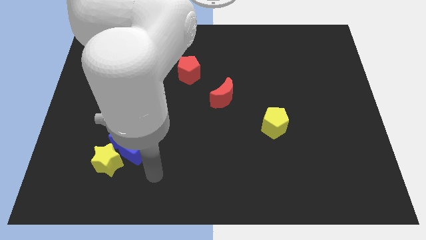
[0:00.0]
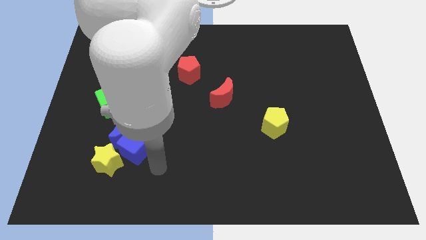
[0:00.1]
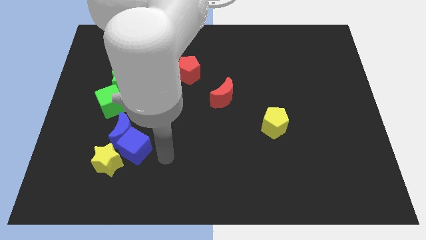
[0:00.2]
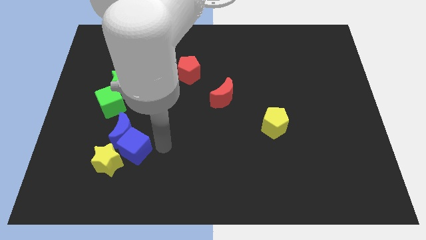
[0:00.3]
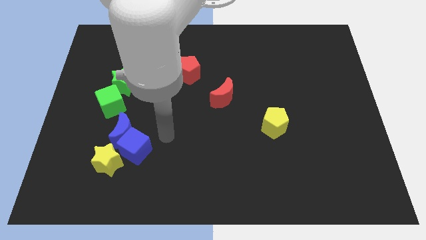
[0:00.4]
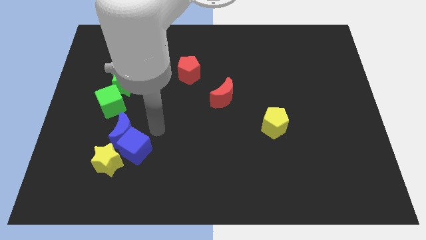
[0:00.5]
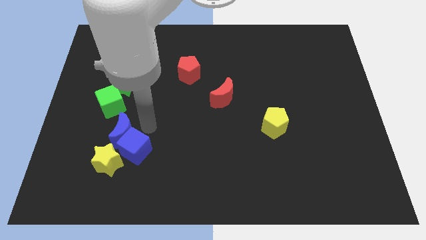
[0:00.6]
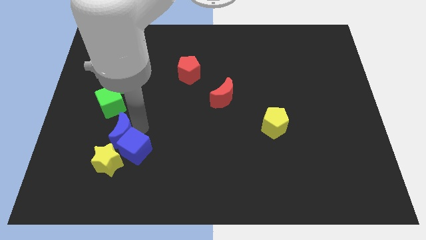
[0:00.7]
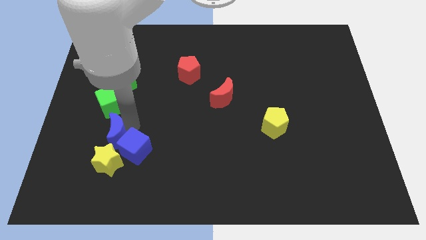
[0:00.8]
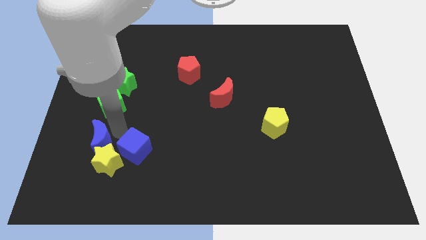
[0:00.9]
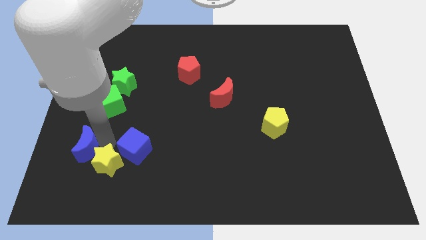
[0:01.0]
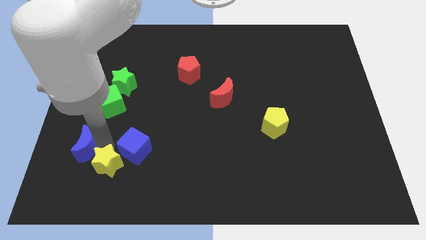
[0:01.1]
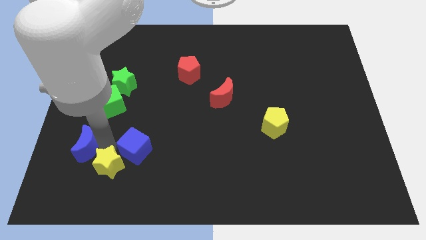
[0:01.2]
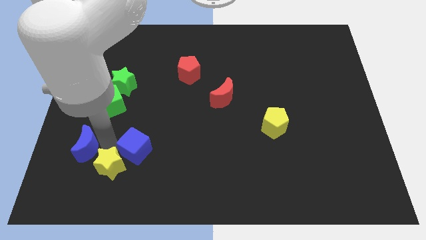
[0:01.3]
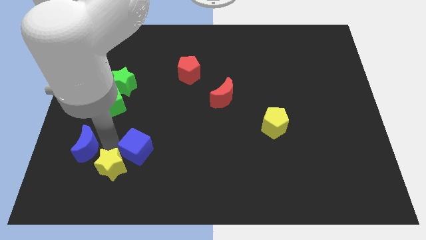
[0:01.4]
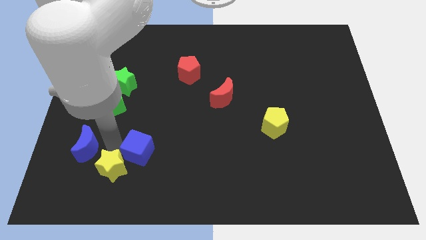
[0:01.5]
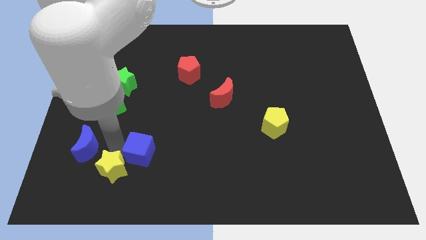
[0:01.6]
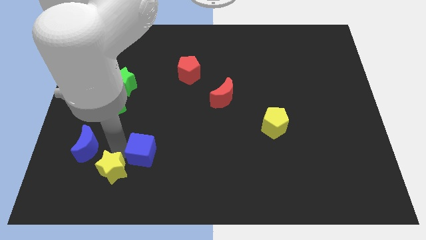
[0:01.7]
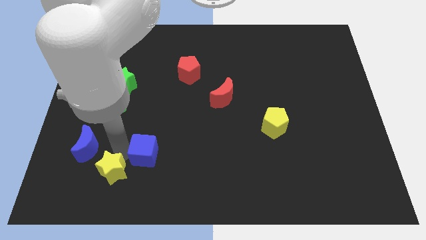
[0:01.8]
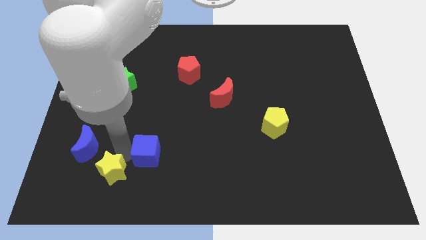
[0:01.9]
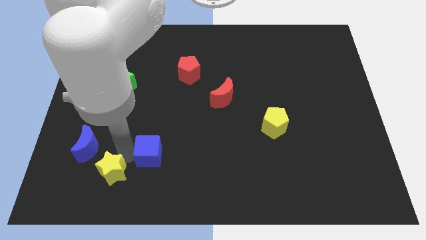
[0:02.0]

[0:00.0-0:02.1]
separate the blue cube from the blue moon and yellow star

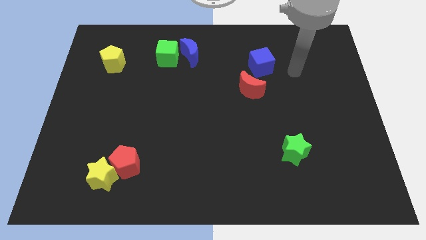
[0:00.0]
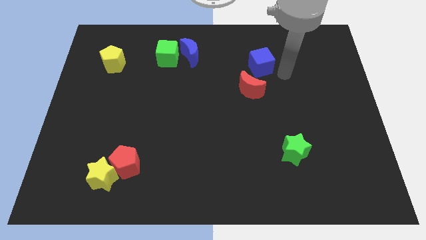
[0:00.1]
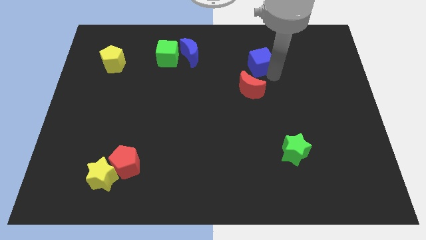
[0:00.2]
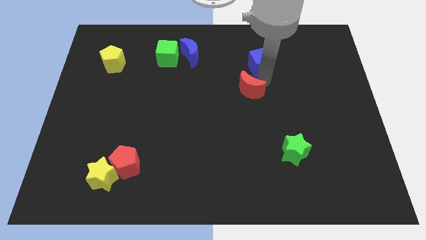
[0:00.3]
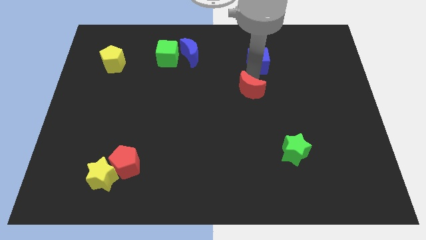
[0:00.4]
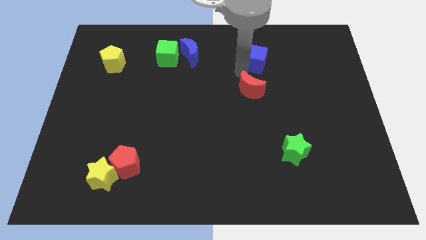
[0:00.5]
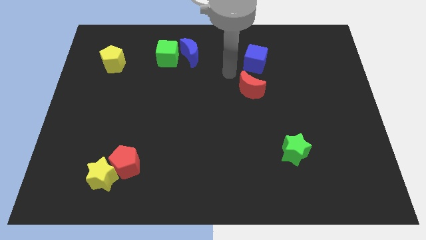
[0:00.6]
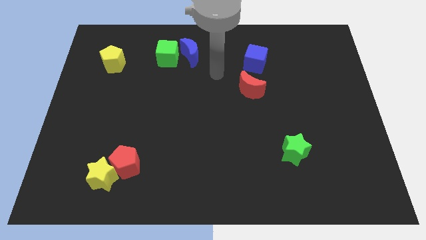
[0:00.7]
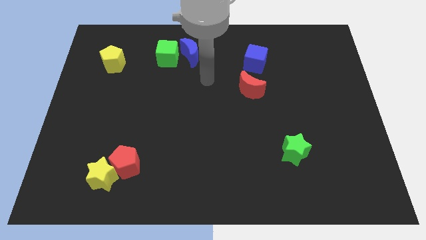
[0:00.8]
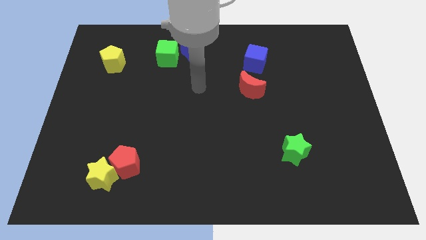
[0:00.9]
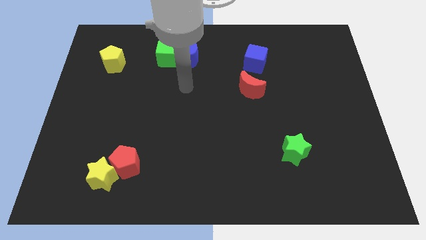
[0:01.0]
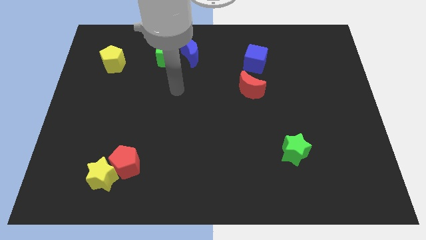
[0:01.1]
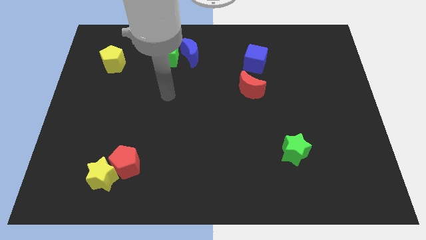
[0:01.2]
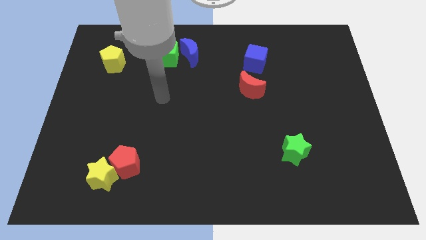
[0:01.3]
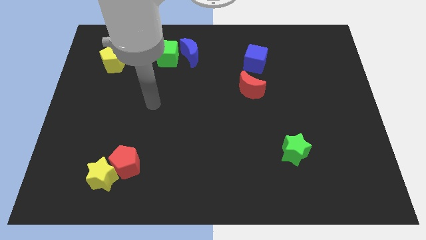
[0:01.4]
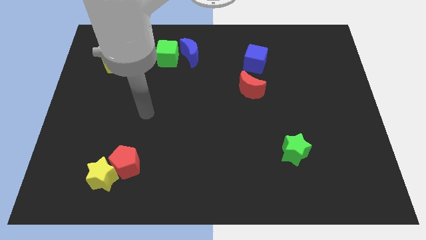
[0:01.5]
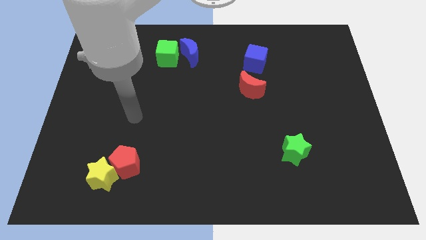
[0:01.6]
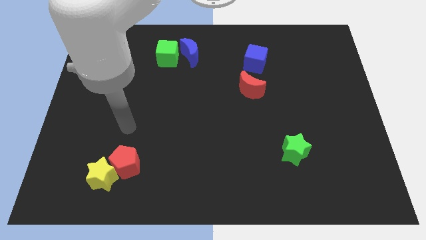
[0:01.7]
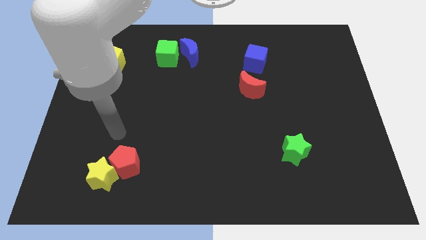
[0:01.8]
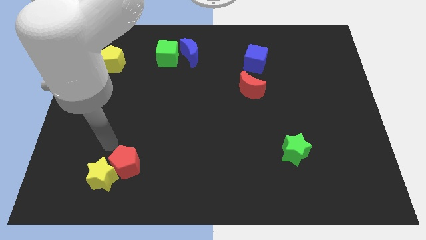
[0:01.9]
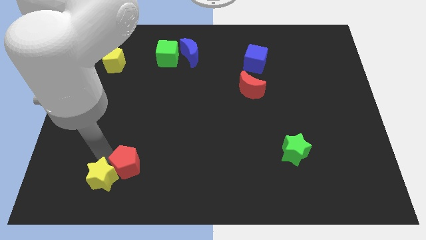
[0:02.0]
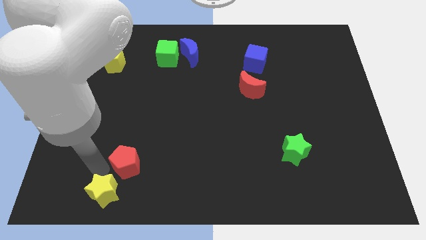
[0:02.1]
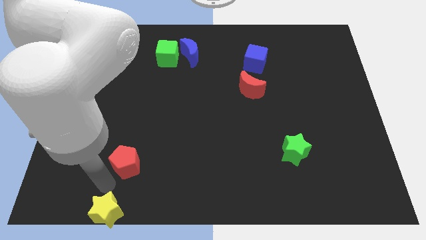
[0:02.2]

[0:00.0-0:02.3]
move the red pentagon away from the yellow star

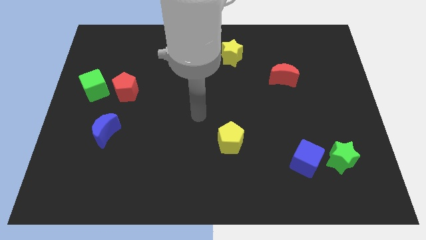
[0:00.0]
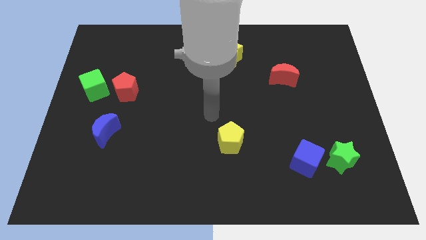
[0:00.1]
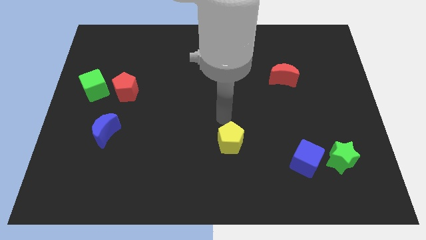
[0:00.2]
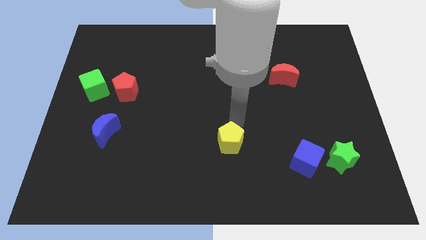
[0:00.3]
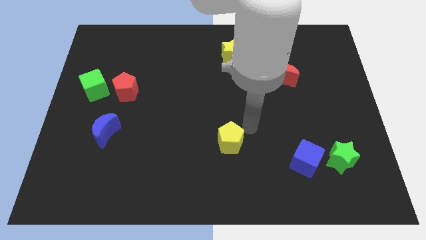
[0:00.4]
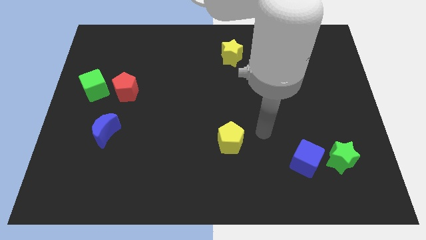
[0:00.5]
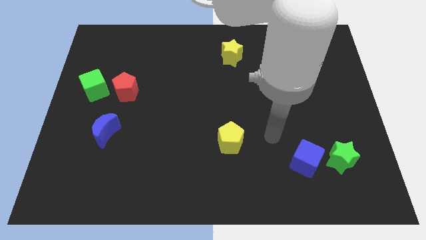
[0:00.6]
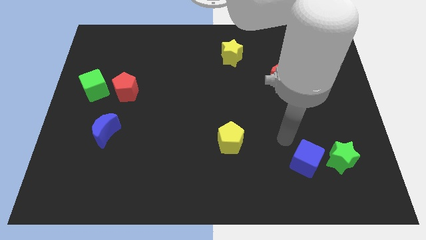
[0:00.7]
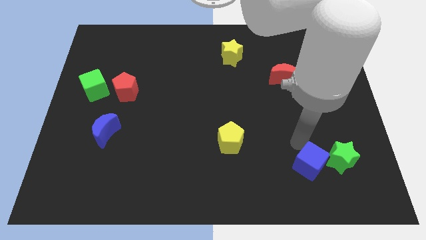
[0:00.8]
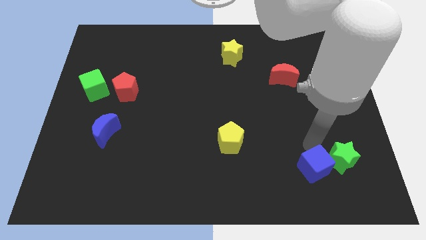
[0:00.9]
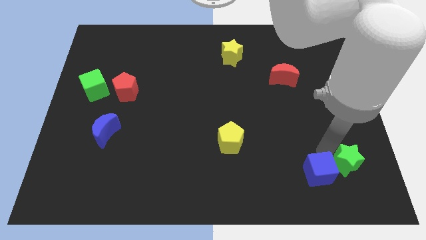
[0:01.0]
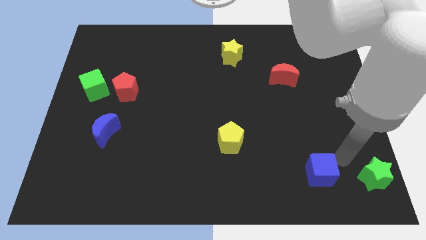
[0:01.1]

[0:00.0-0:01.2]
separate the blue cube from the green star

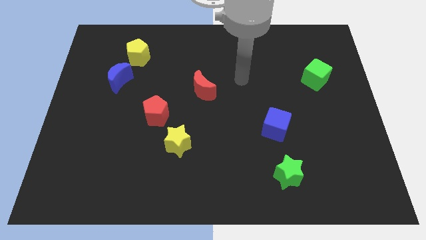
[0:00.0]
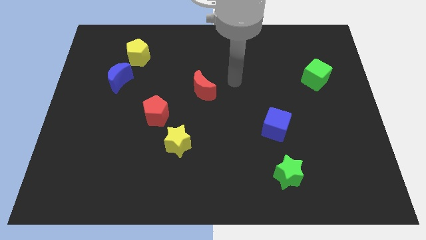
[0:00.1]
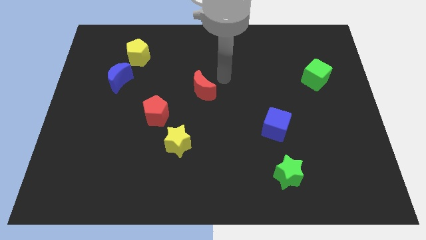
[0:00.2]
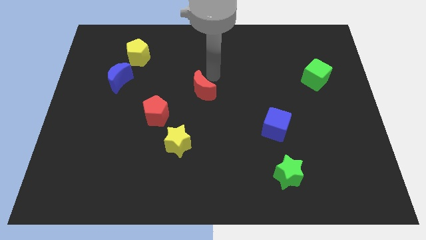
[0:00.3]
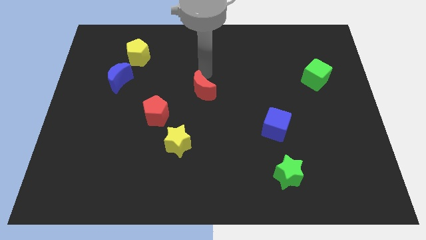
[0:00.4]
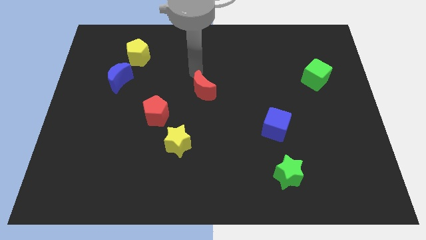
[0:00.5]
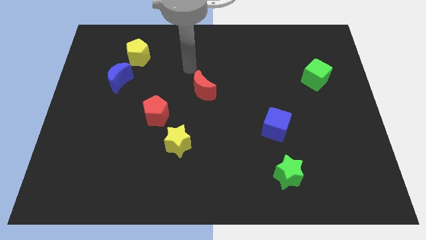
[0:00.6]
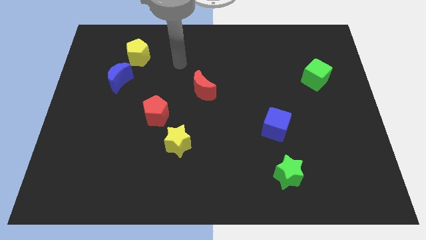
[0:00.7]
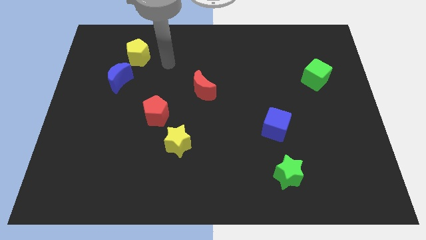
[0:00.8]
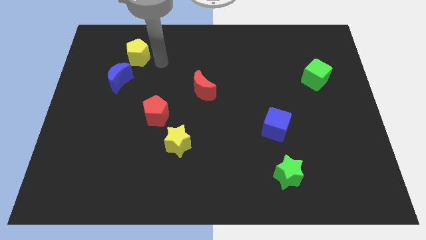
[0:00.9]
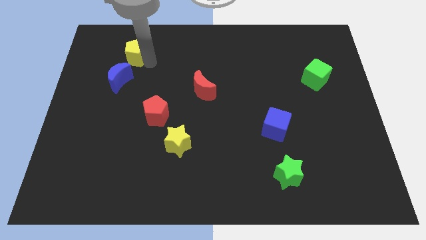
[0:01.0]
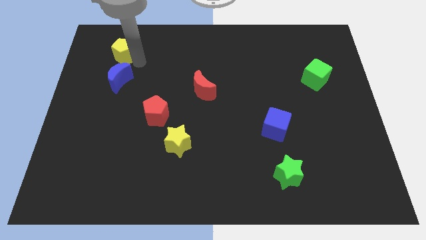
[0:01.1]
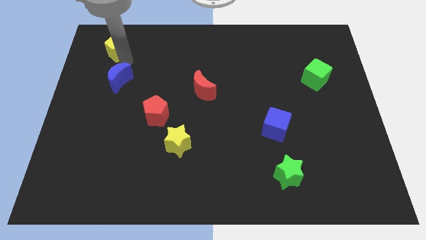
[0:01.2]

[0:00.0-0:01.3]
separate the blue moon from the yellow pentagon

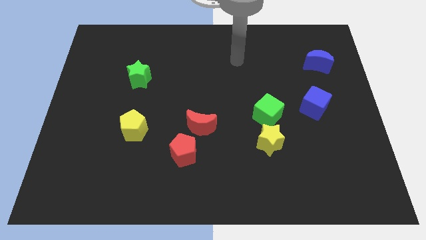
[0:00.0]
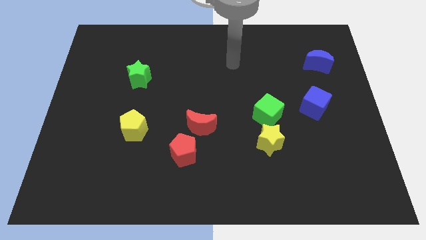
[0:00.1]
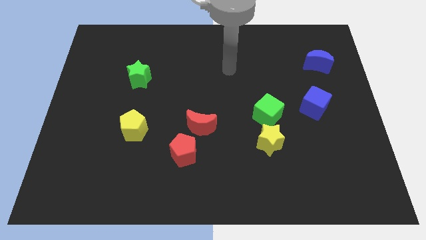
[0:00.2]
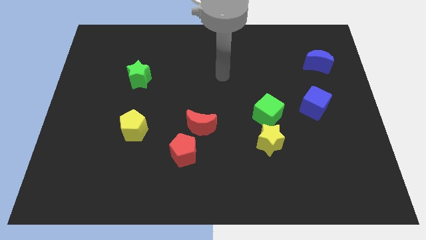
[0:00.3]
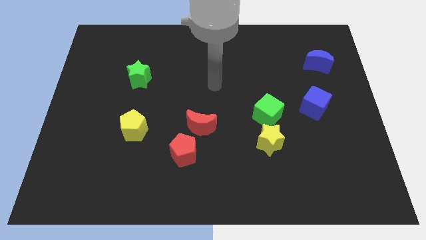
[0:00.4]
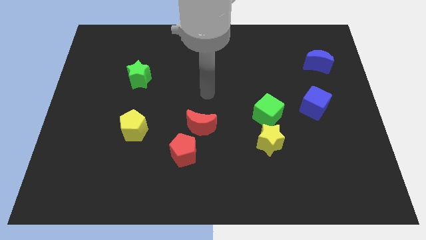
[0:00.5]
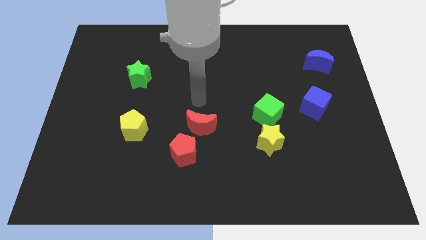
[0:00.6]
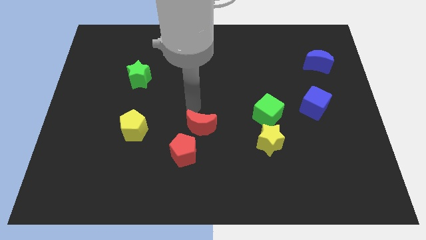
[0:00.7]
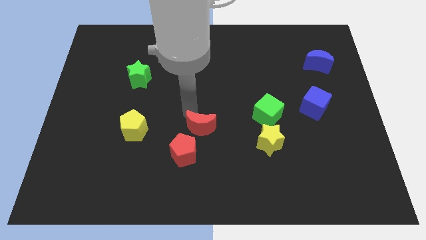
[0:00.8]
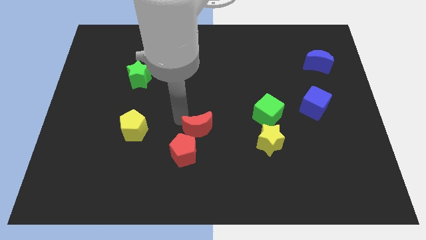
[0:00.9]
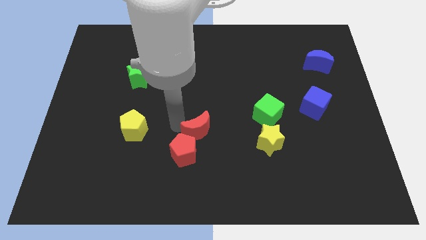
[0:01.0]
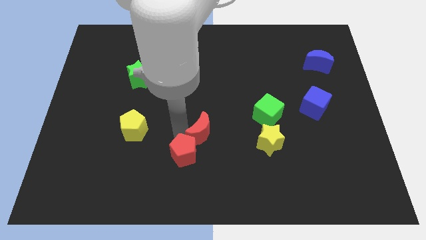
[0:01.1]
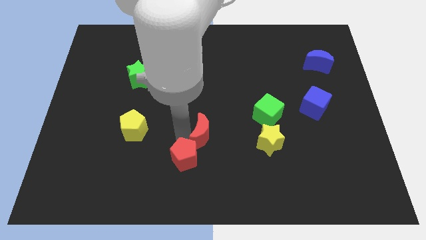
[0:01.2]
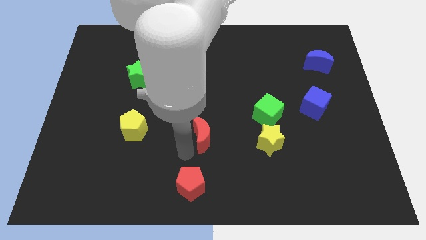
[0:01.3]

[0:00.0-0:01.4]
separate the red moon from the red pentagon

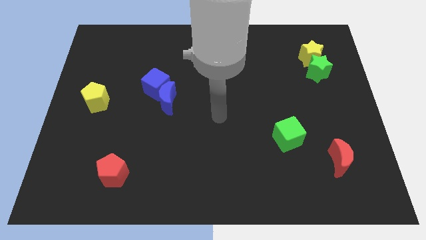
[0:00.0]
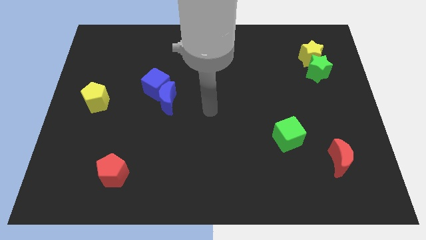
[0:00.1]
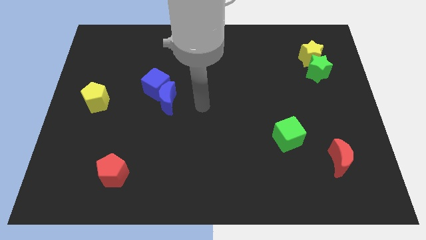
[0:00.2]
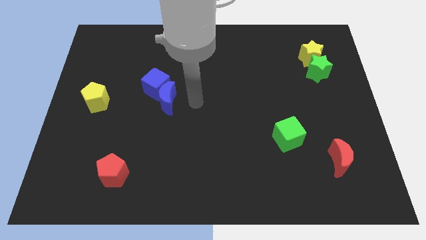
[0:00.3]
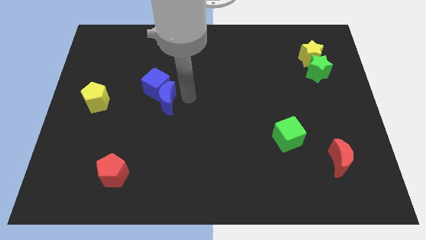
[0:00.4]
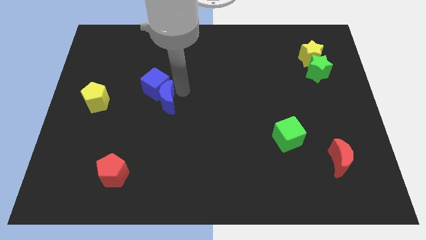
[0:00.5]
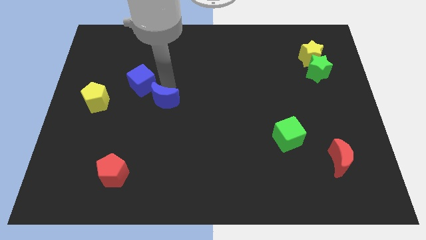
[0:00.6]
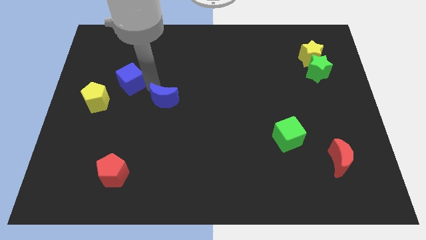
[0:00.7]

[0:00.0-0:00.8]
move the blue moon away from the blue cube

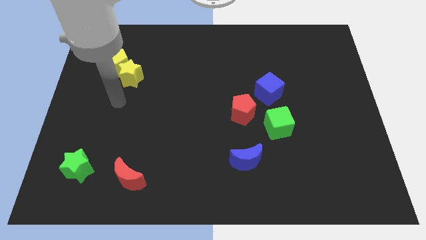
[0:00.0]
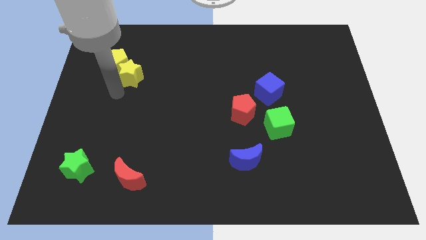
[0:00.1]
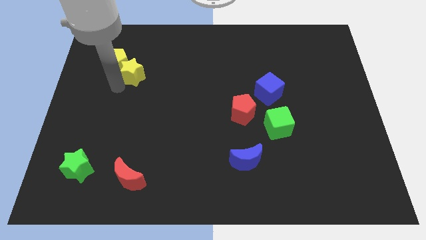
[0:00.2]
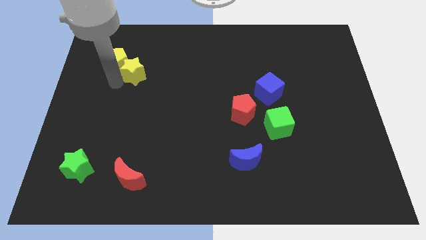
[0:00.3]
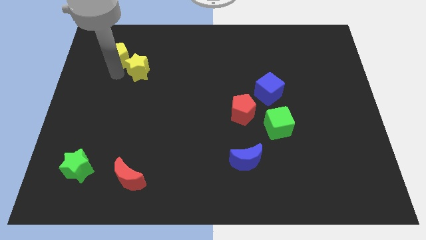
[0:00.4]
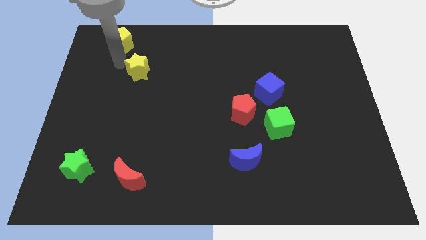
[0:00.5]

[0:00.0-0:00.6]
separate the yellow star from the yellow pentagon
